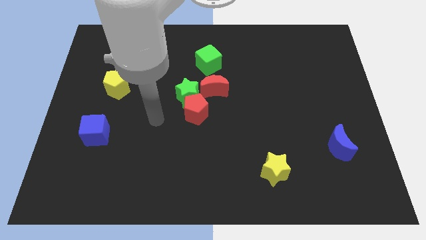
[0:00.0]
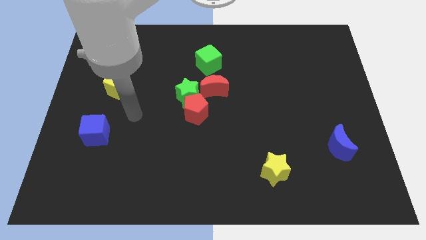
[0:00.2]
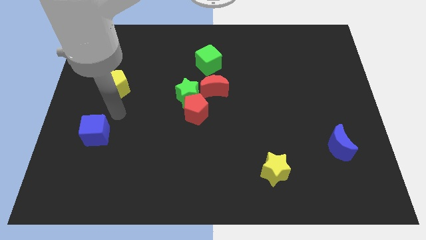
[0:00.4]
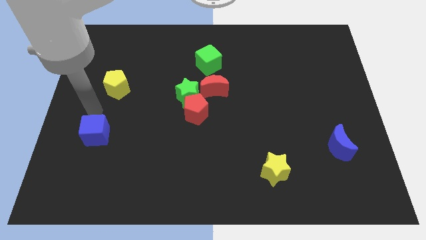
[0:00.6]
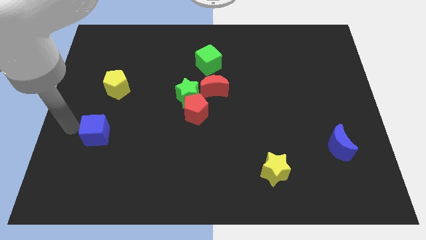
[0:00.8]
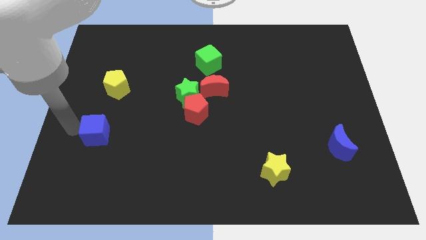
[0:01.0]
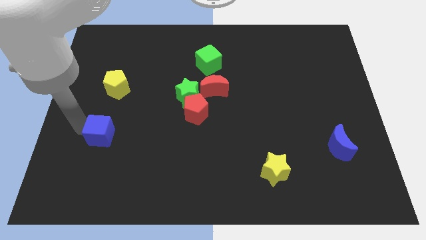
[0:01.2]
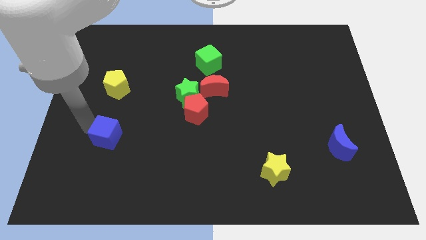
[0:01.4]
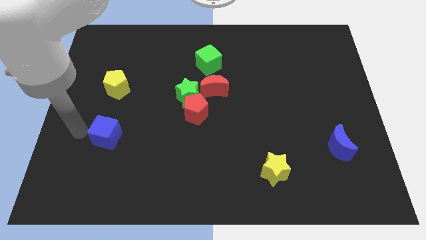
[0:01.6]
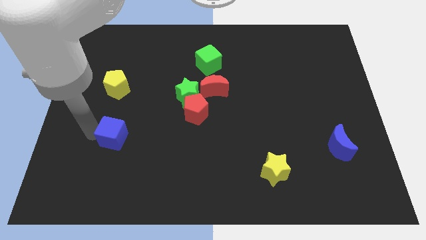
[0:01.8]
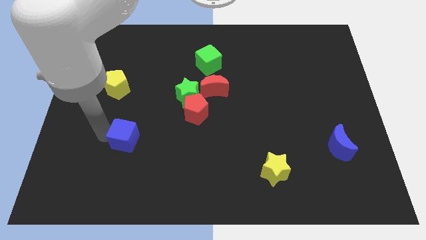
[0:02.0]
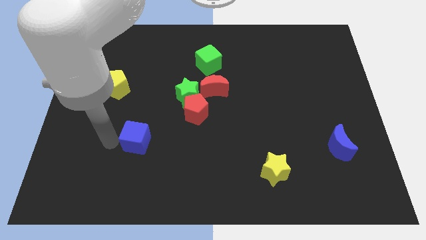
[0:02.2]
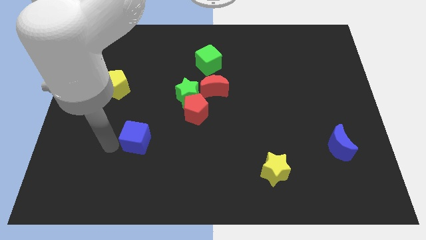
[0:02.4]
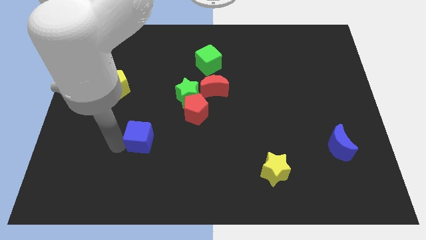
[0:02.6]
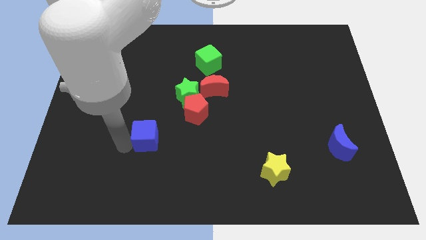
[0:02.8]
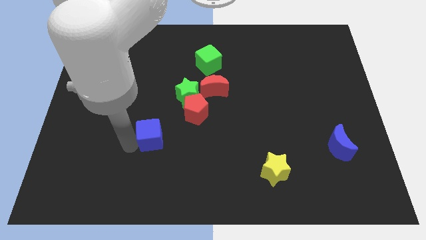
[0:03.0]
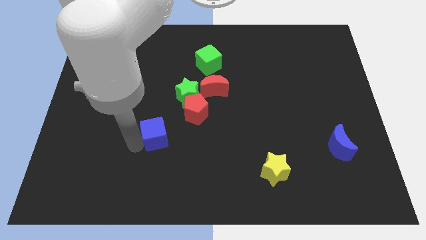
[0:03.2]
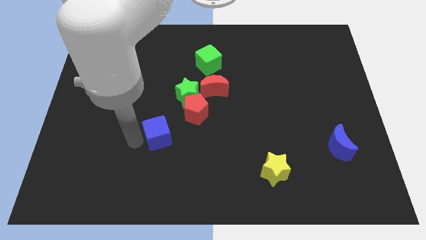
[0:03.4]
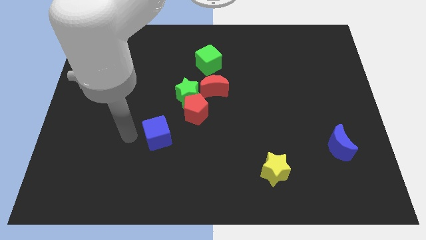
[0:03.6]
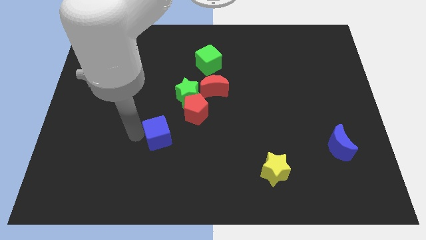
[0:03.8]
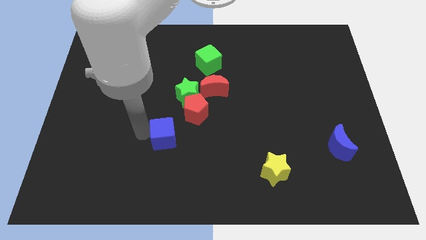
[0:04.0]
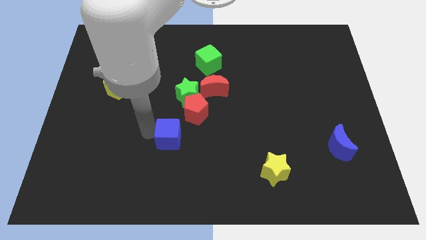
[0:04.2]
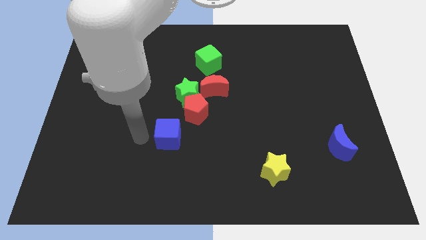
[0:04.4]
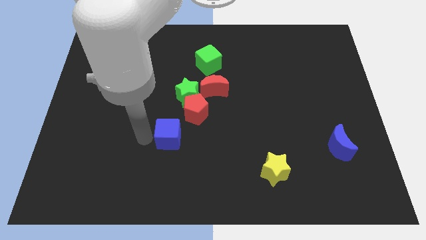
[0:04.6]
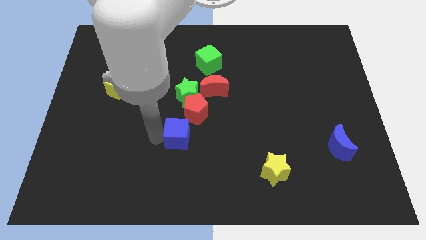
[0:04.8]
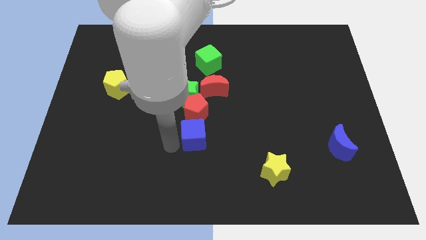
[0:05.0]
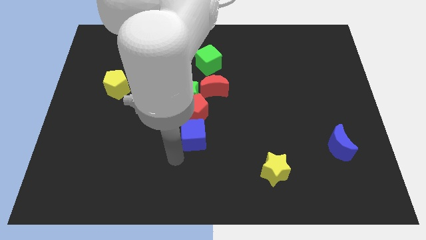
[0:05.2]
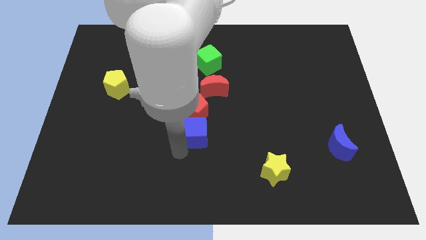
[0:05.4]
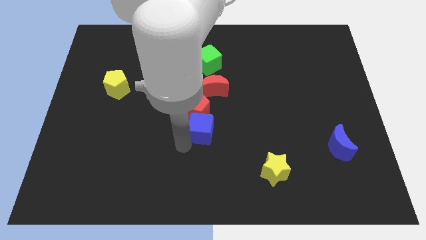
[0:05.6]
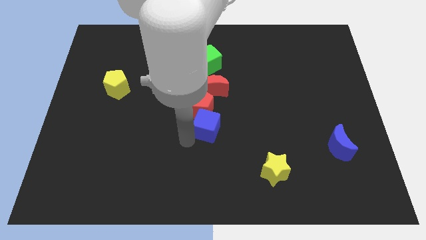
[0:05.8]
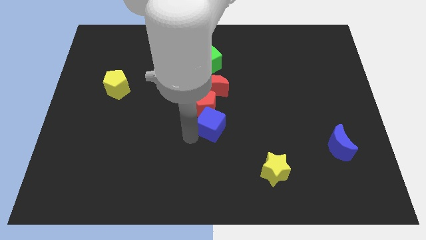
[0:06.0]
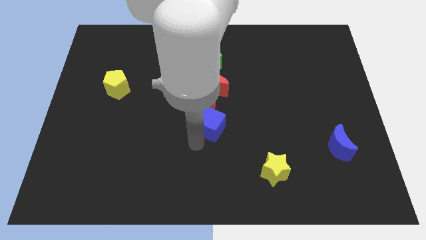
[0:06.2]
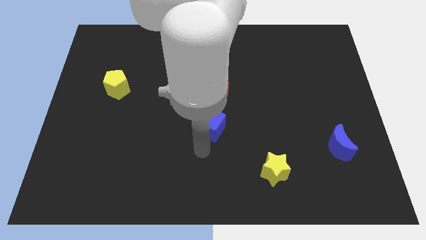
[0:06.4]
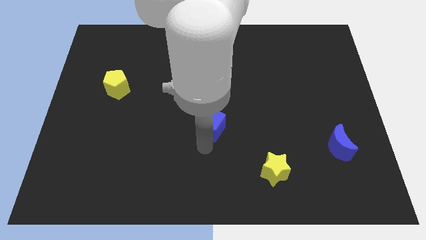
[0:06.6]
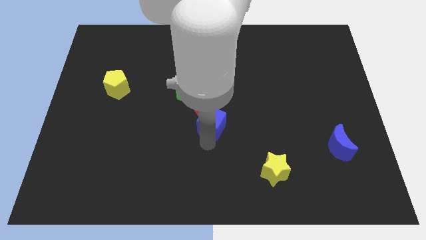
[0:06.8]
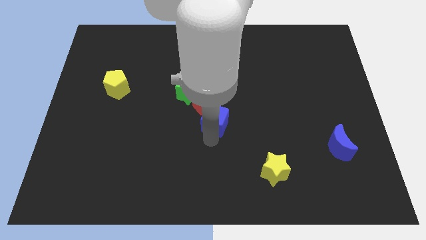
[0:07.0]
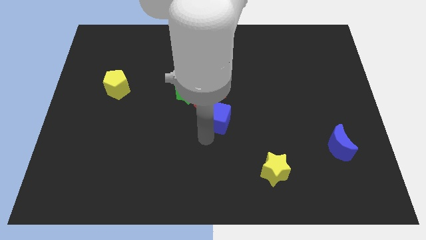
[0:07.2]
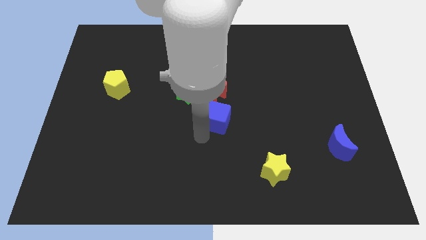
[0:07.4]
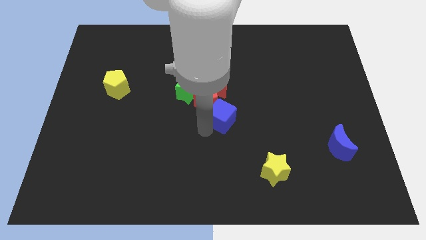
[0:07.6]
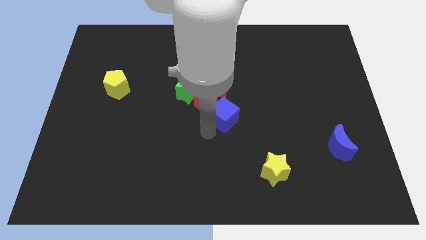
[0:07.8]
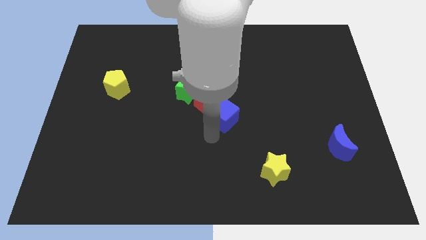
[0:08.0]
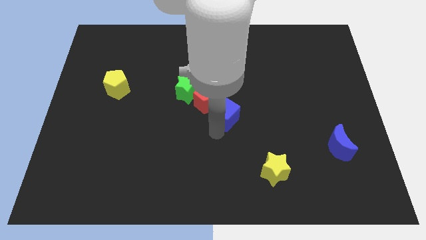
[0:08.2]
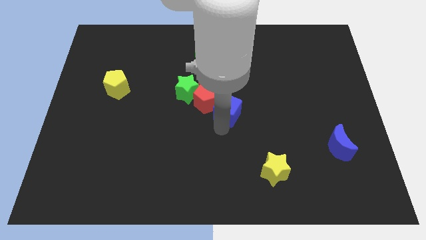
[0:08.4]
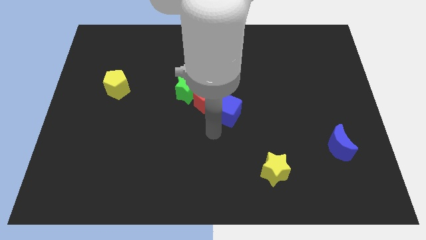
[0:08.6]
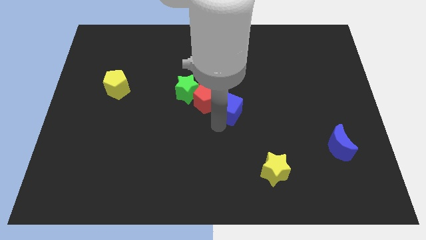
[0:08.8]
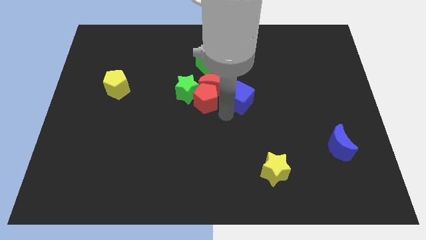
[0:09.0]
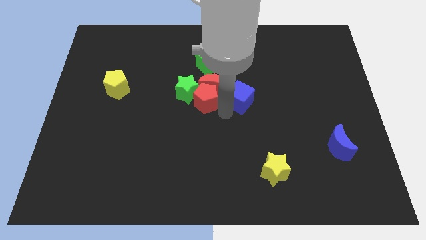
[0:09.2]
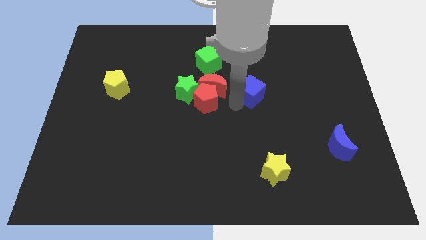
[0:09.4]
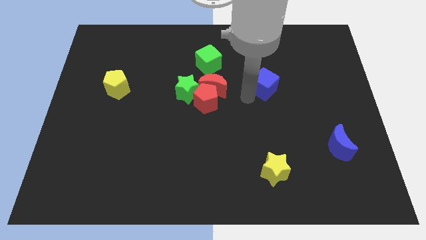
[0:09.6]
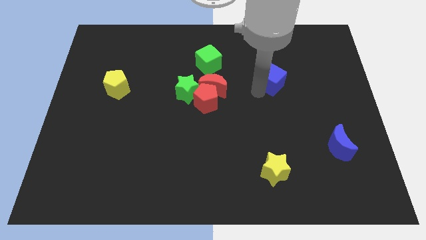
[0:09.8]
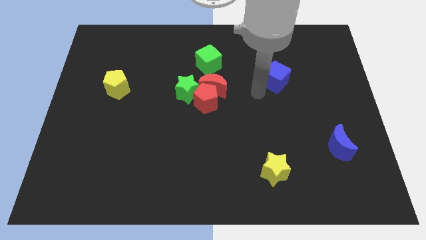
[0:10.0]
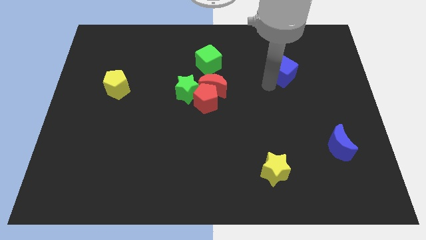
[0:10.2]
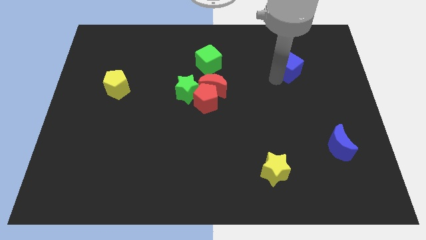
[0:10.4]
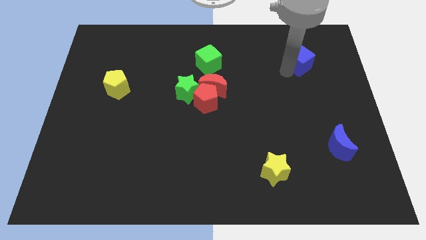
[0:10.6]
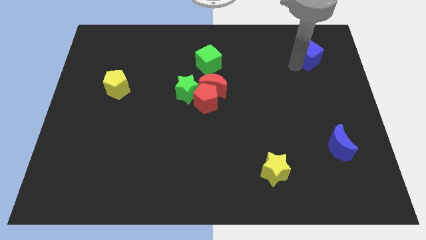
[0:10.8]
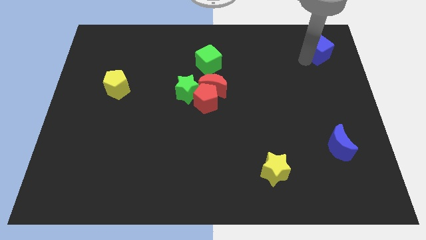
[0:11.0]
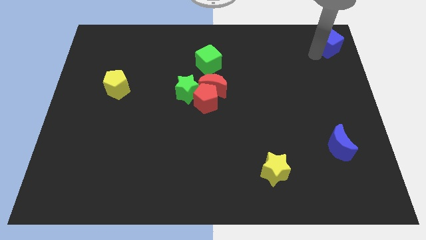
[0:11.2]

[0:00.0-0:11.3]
push the blue cube to the top right corner

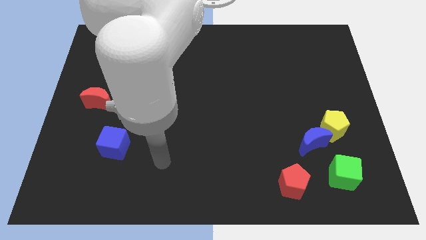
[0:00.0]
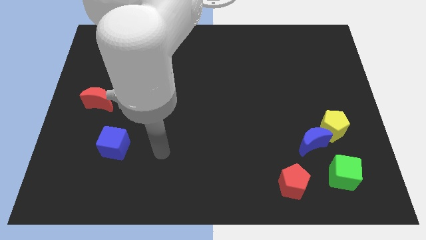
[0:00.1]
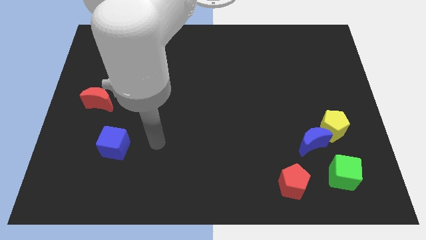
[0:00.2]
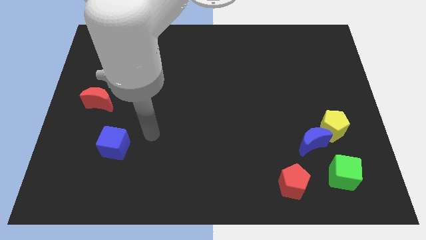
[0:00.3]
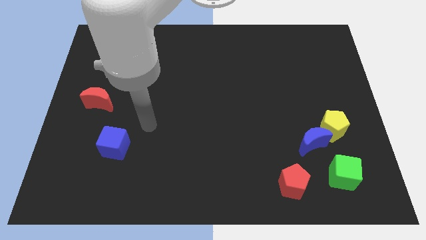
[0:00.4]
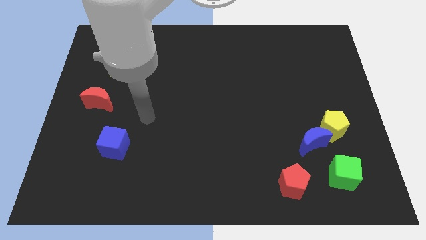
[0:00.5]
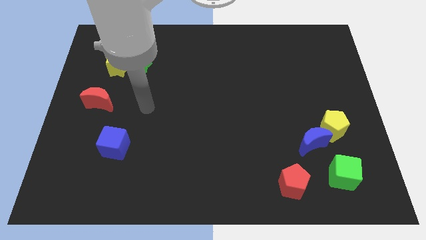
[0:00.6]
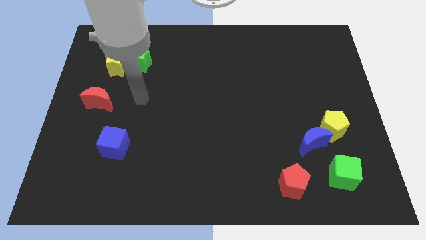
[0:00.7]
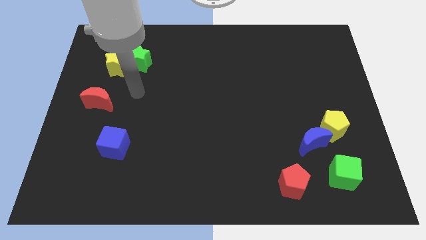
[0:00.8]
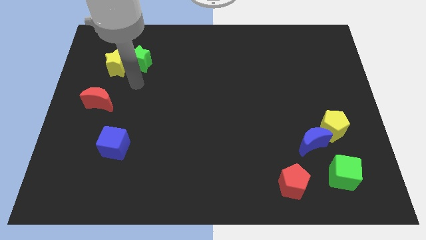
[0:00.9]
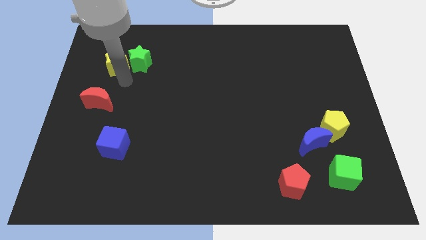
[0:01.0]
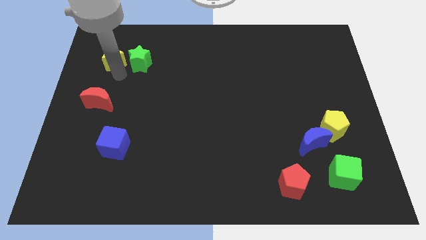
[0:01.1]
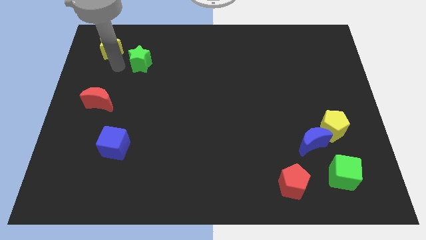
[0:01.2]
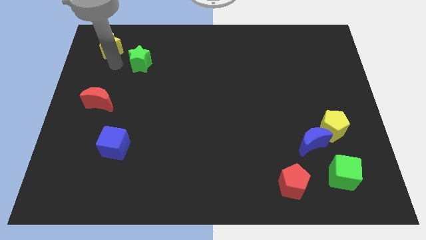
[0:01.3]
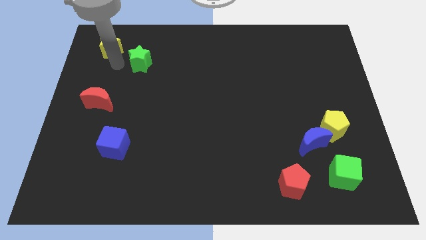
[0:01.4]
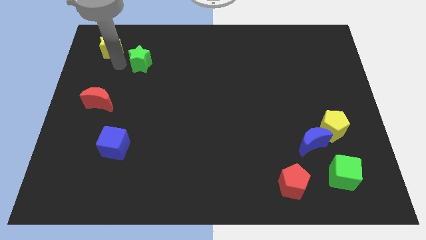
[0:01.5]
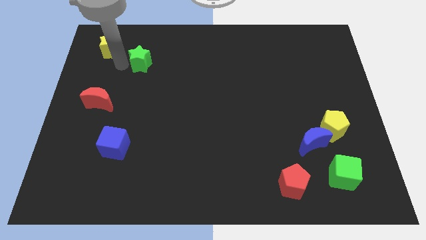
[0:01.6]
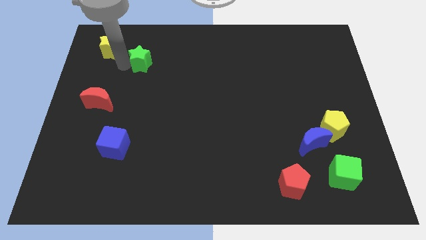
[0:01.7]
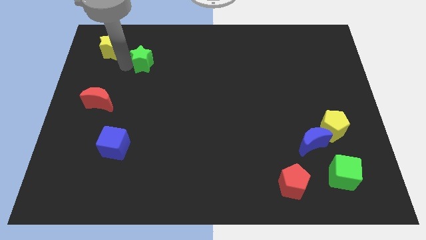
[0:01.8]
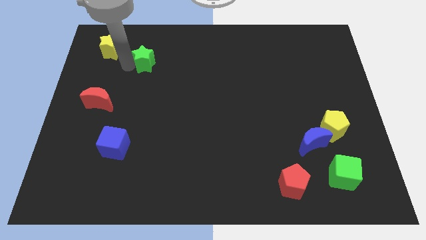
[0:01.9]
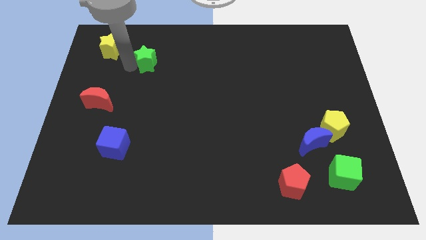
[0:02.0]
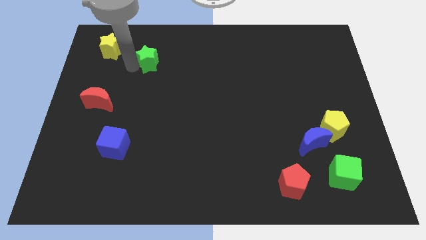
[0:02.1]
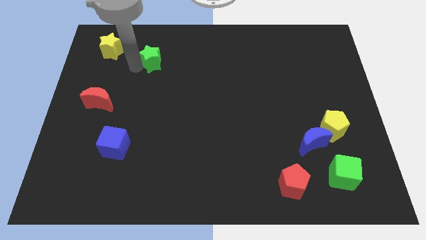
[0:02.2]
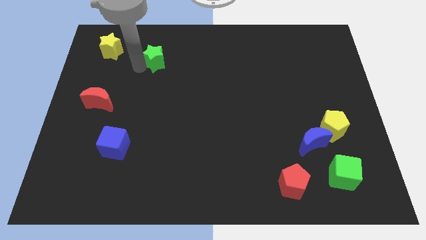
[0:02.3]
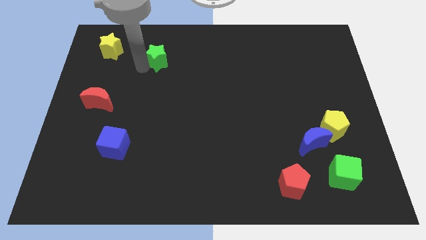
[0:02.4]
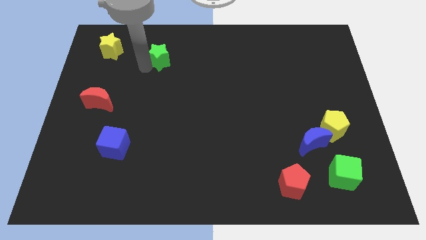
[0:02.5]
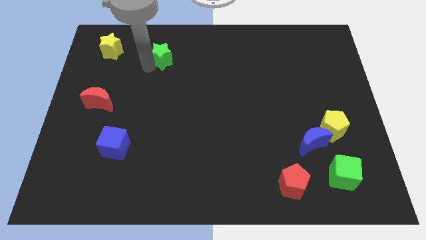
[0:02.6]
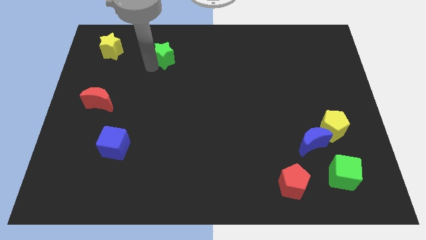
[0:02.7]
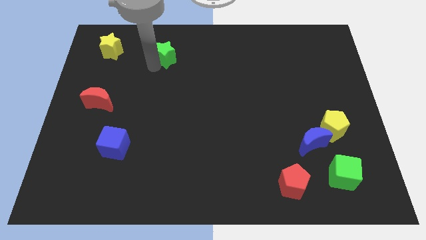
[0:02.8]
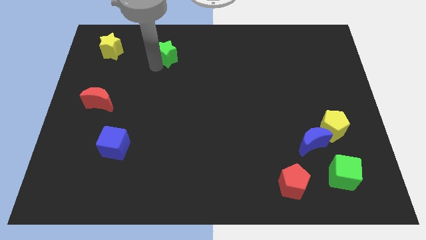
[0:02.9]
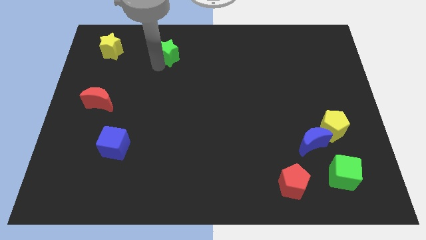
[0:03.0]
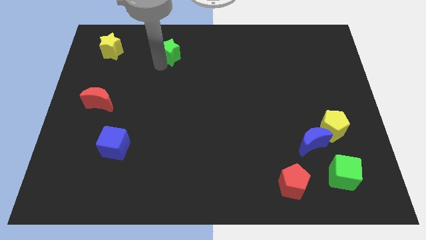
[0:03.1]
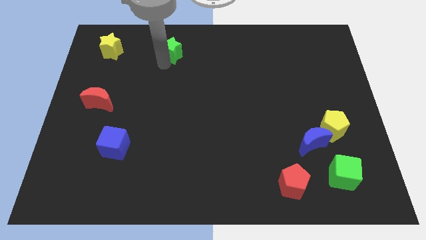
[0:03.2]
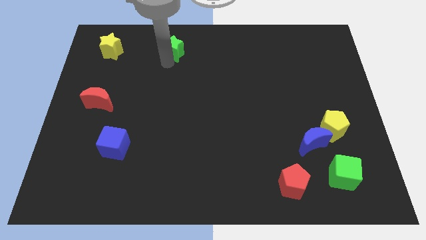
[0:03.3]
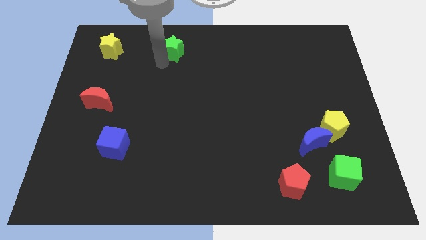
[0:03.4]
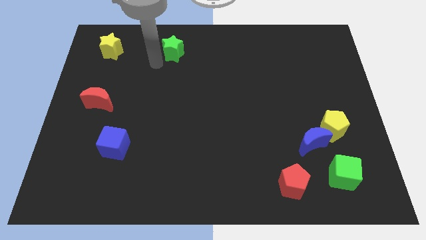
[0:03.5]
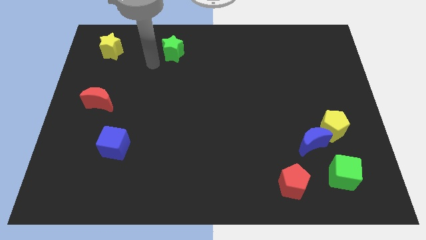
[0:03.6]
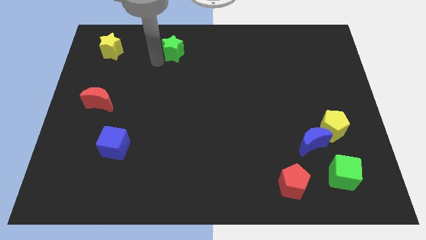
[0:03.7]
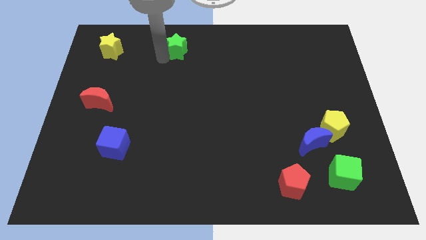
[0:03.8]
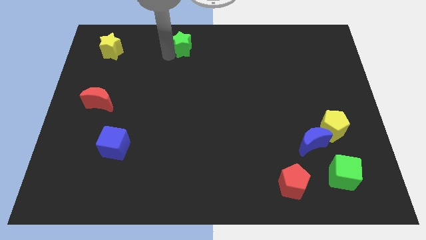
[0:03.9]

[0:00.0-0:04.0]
move the green star to the top side
